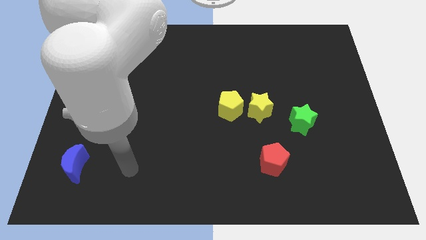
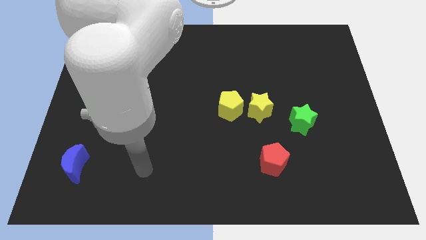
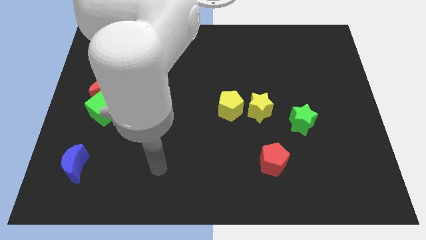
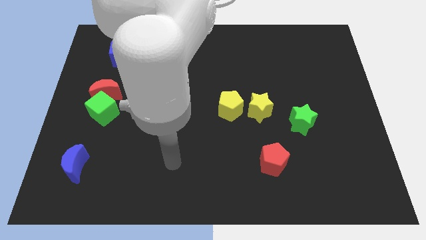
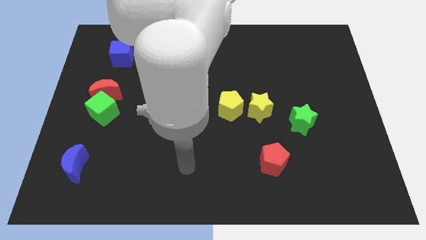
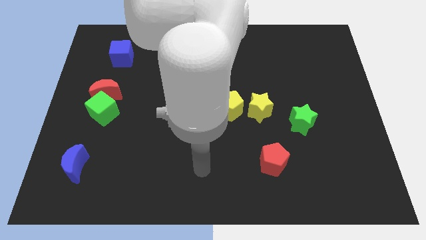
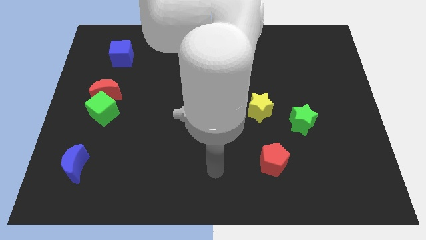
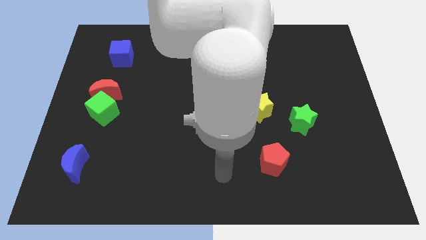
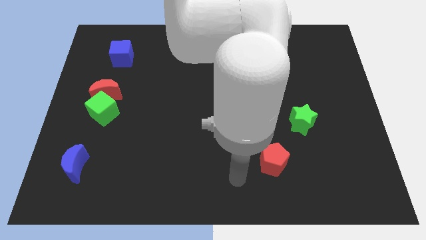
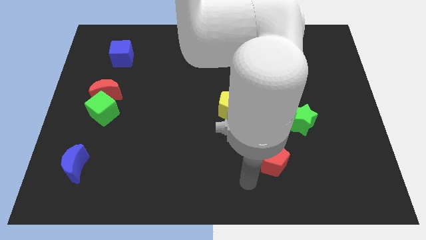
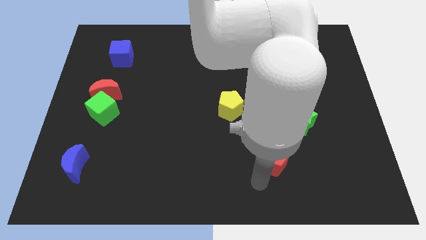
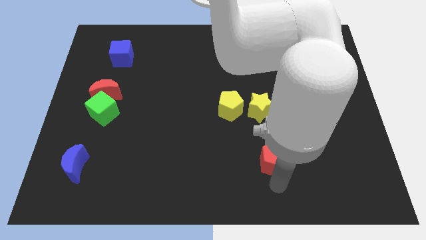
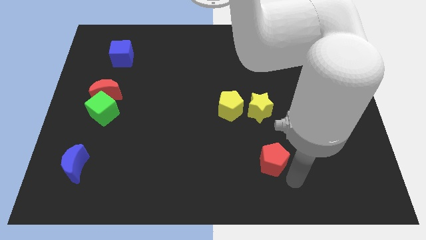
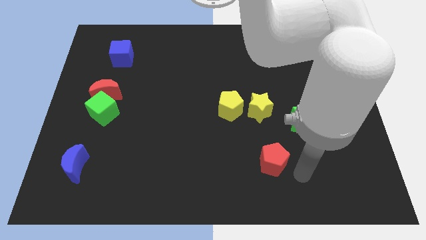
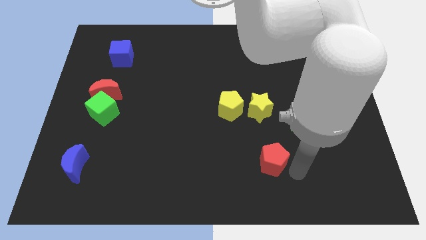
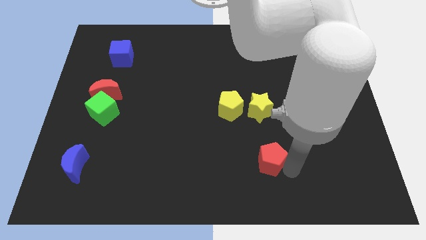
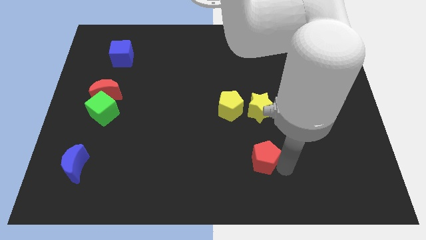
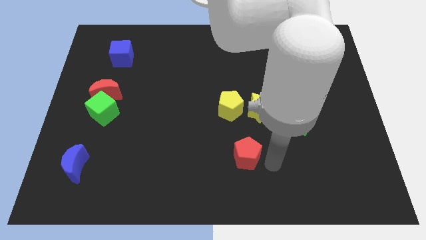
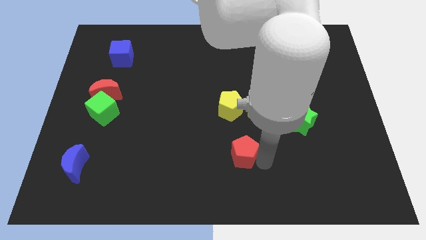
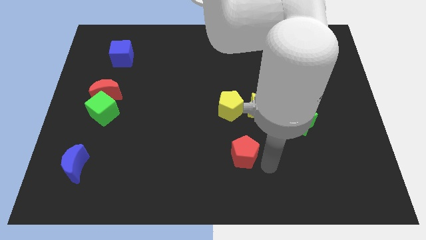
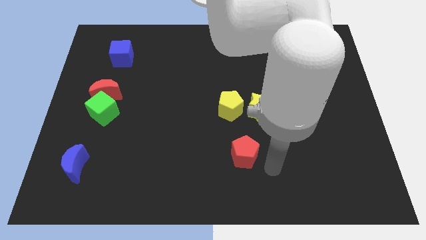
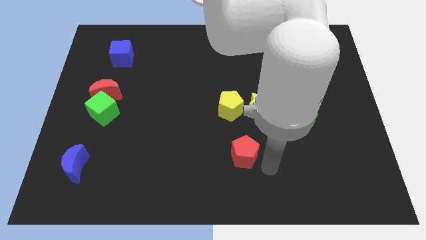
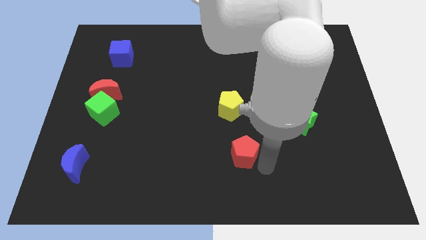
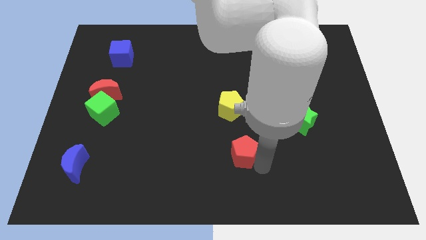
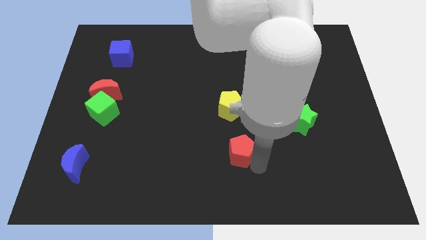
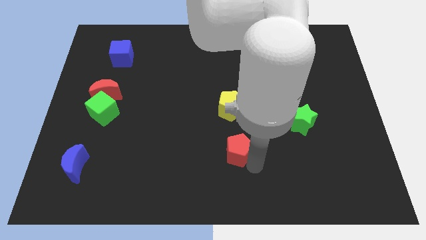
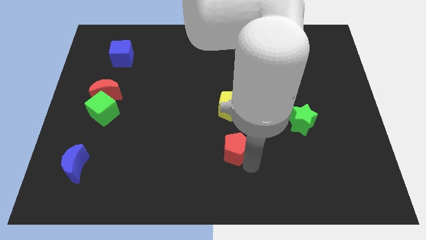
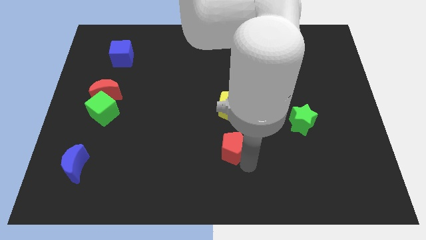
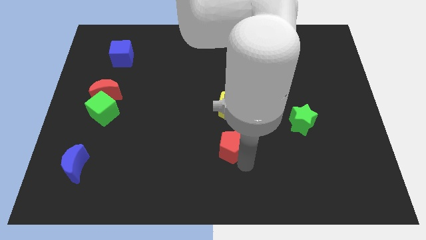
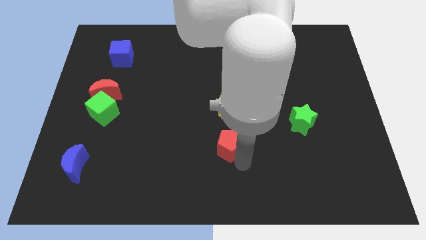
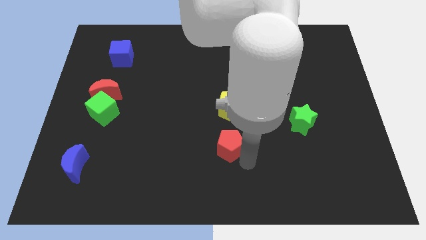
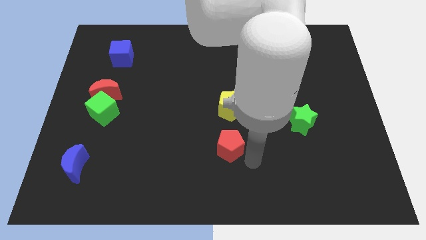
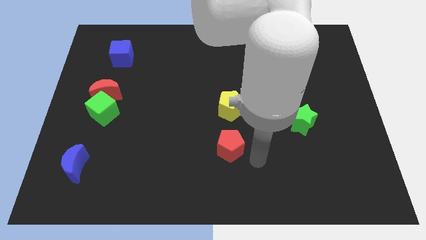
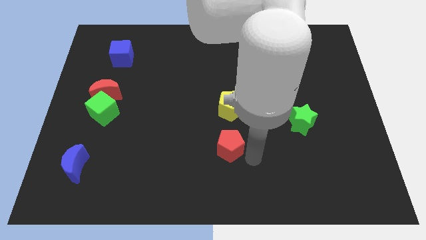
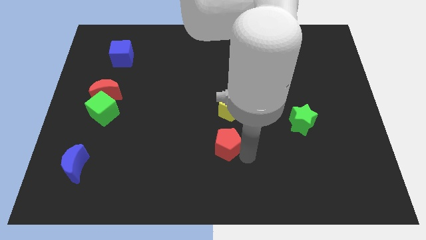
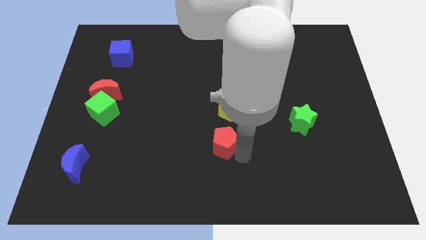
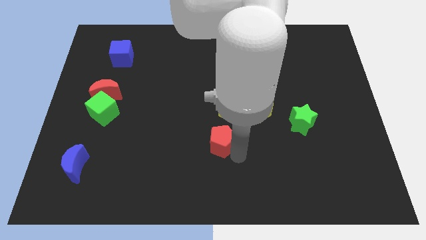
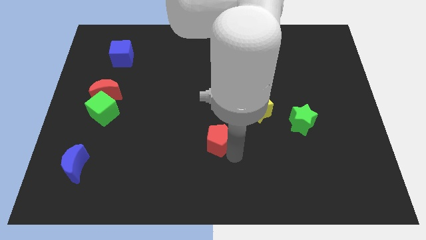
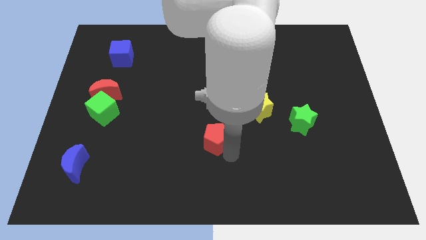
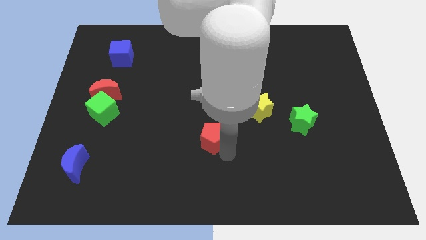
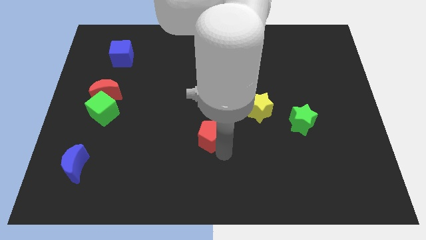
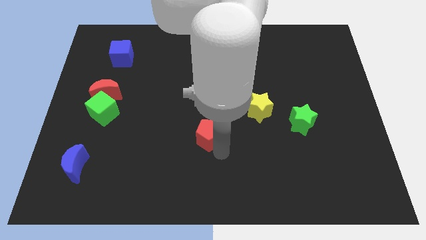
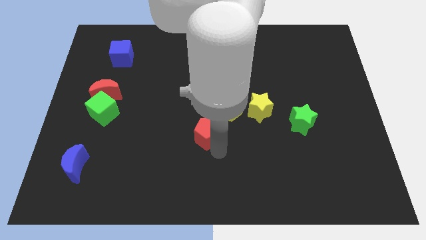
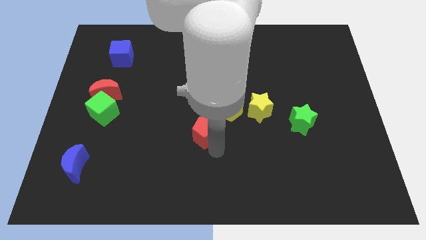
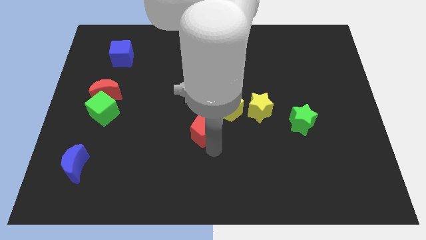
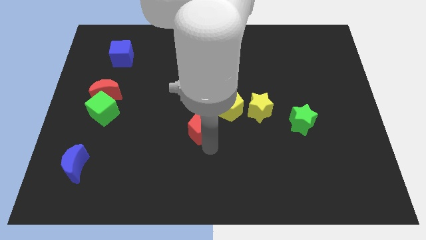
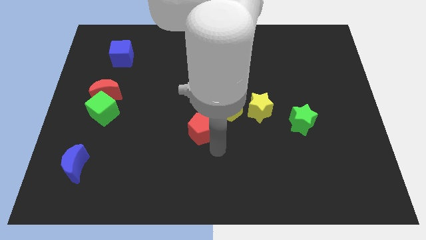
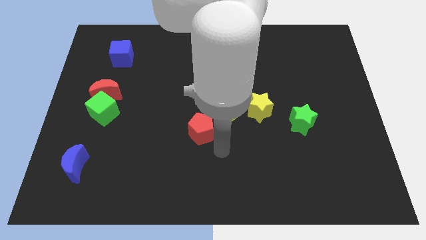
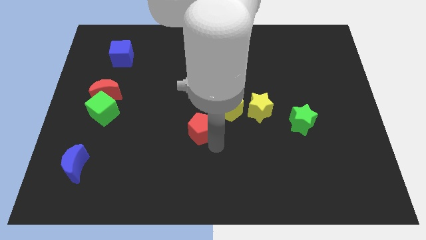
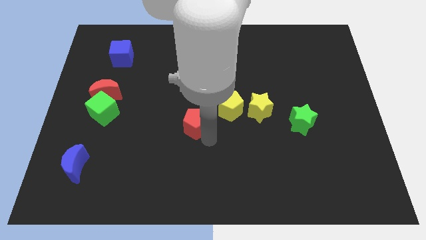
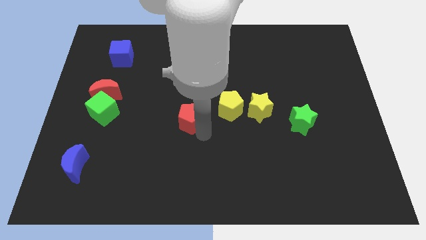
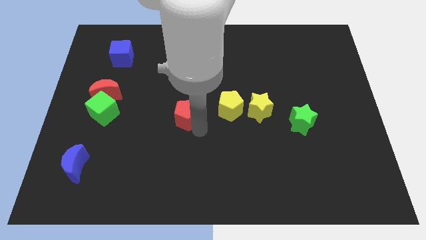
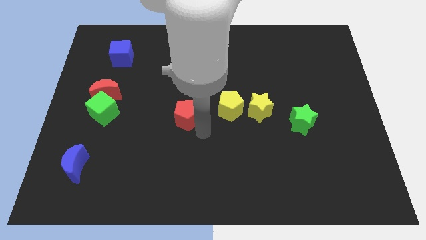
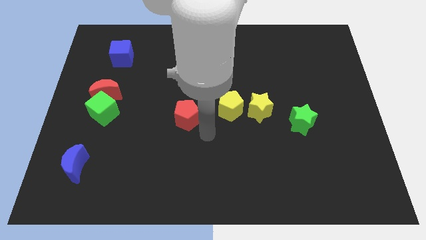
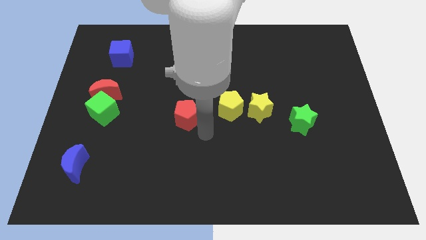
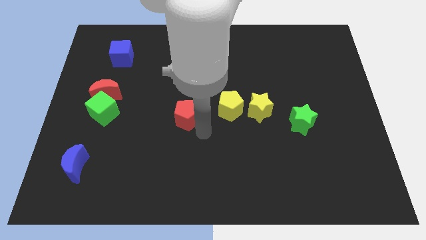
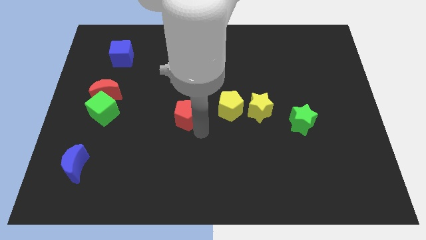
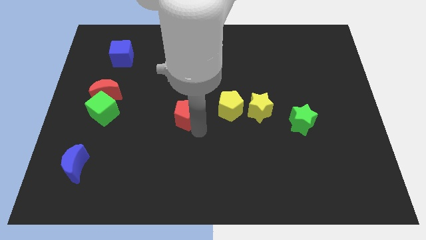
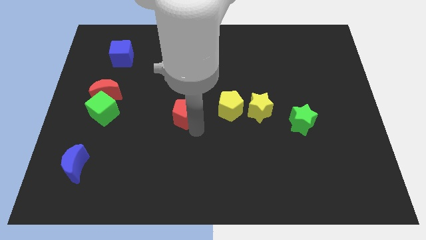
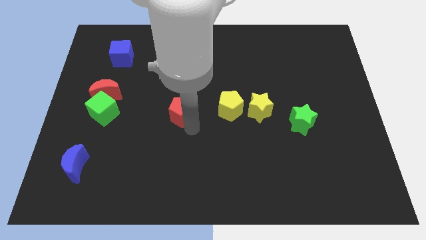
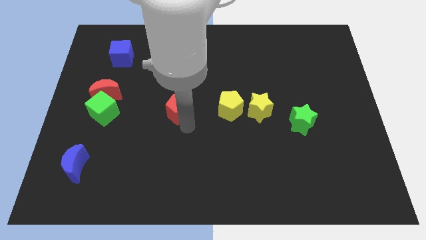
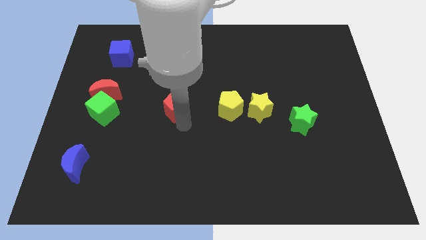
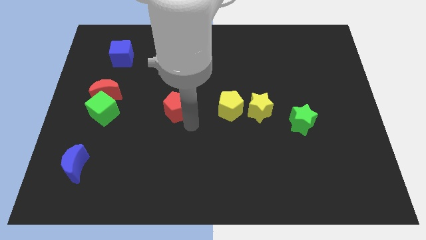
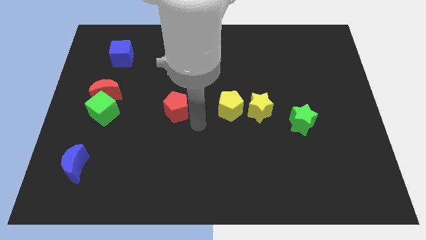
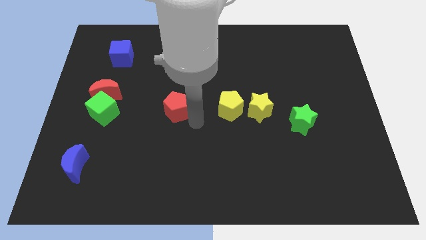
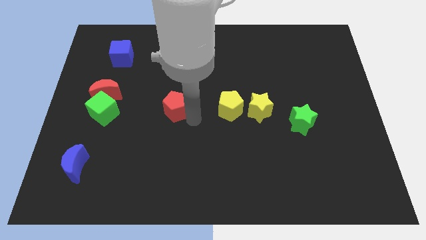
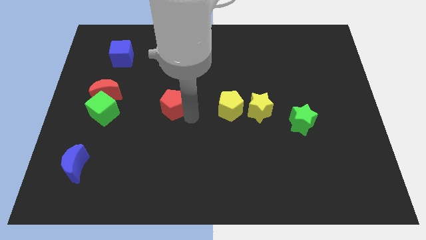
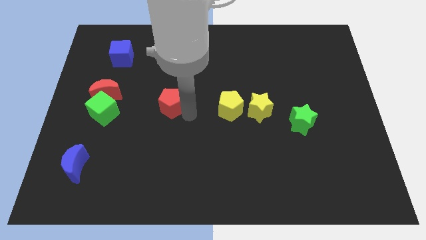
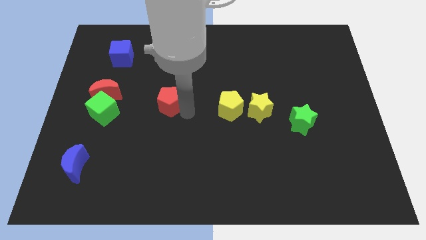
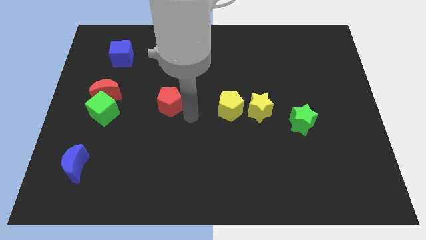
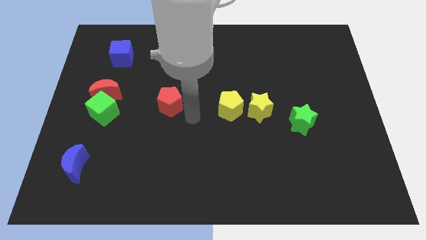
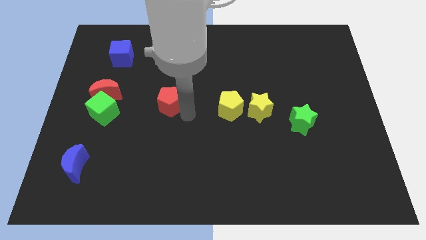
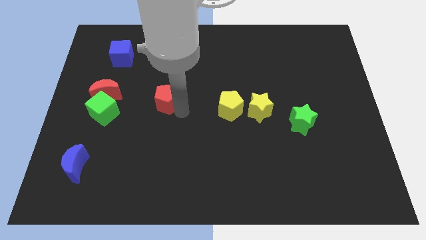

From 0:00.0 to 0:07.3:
move the red pentagon just right of the red moon
